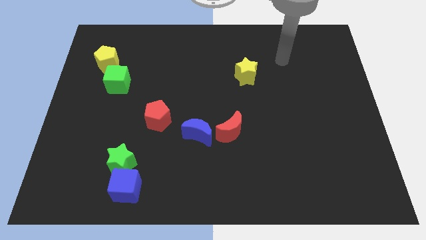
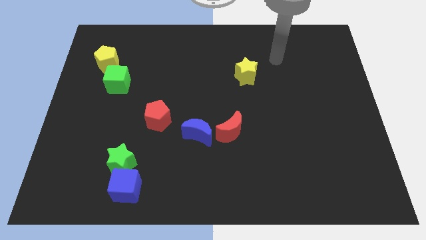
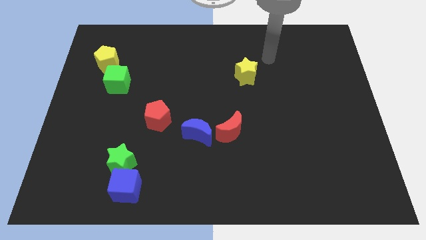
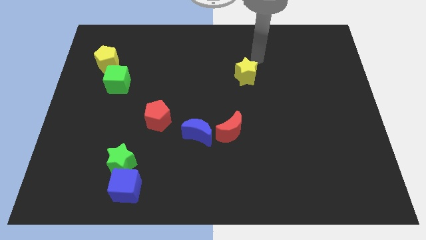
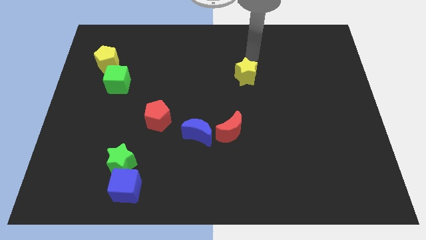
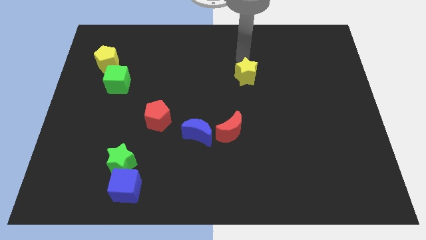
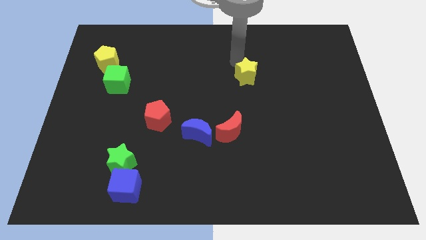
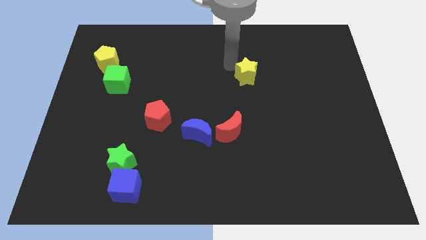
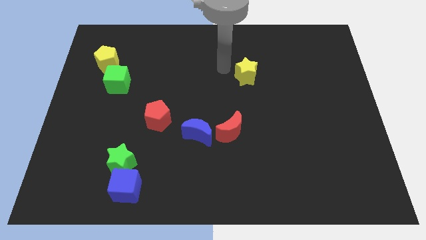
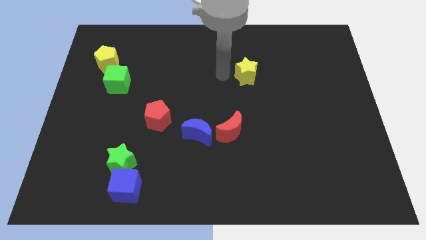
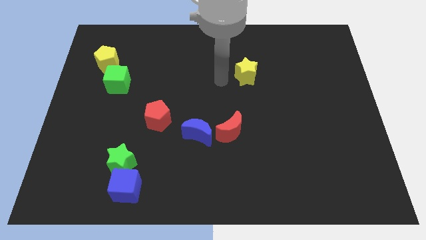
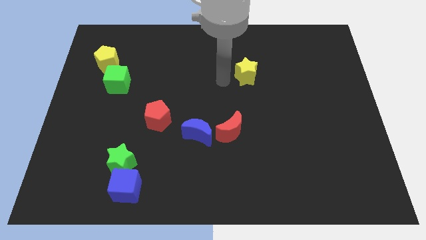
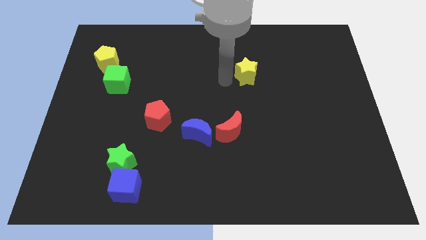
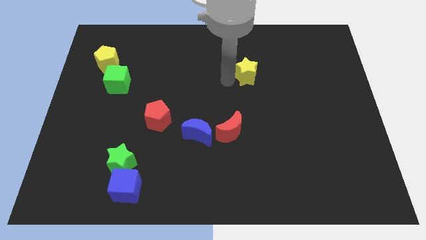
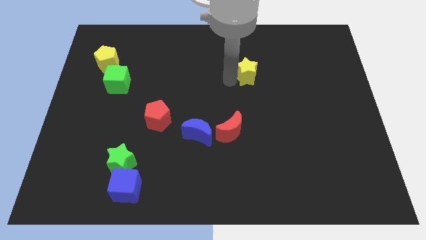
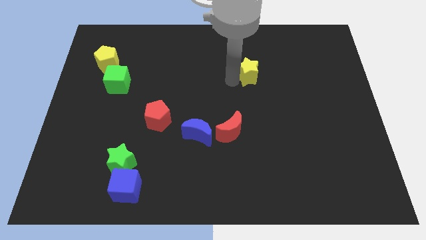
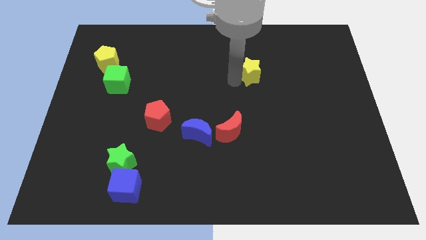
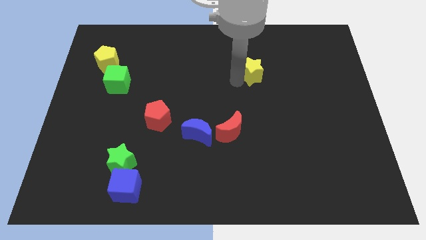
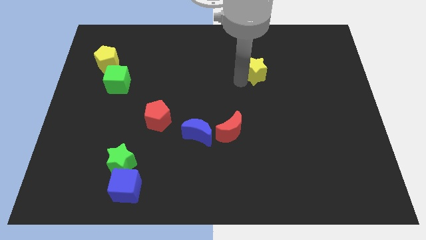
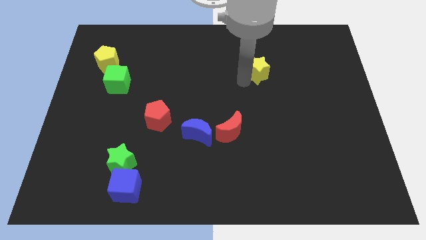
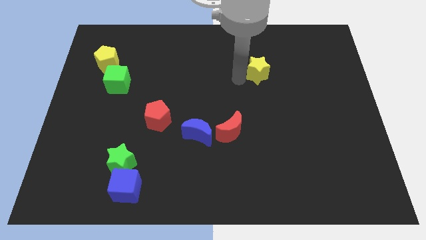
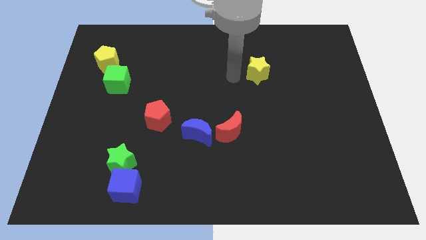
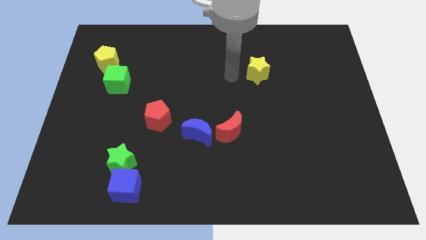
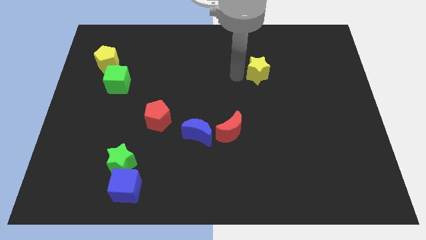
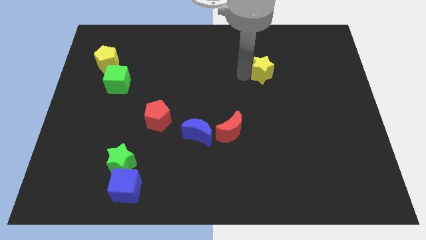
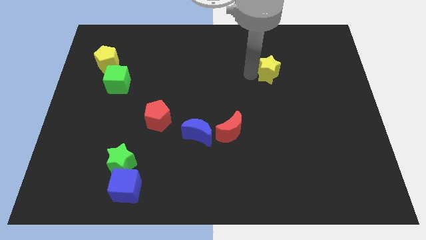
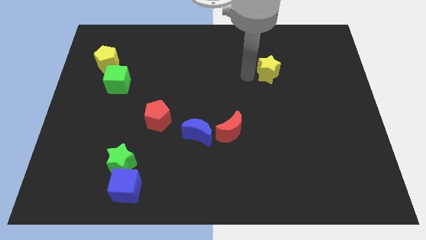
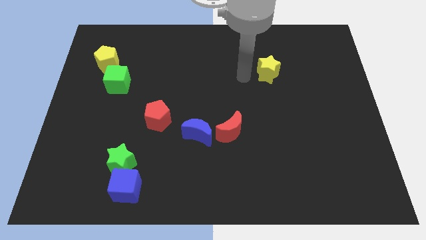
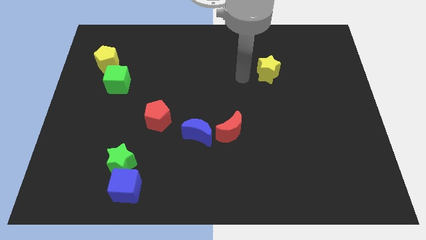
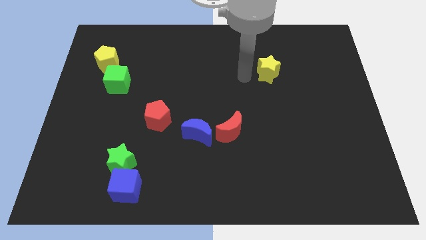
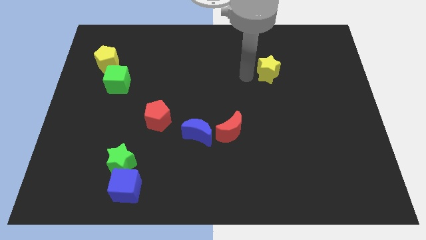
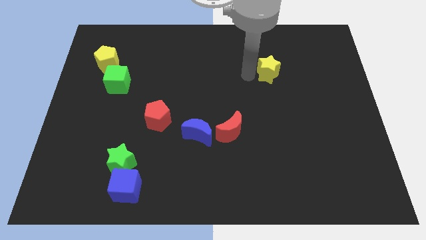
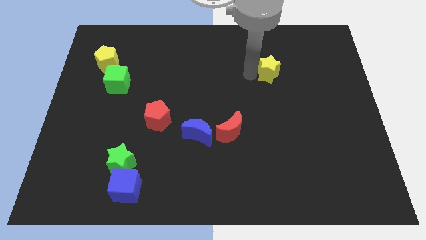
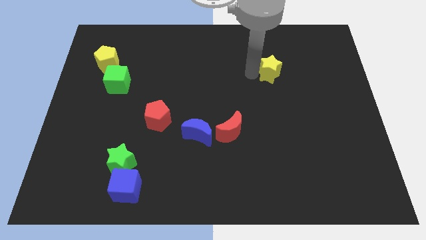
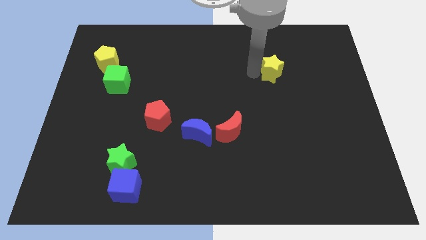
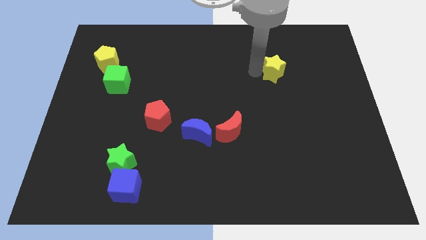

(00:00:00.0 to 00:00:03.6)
move the yellow star somewhat to the right

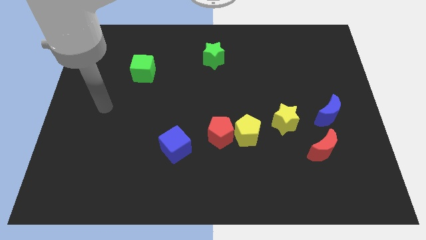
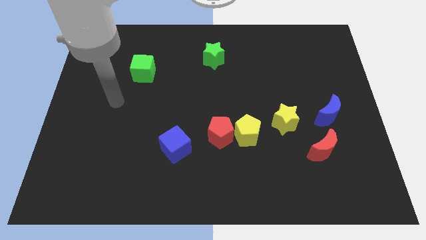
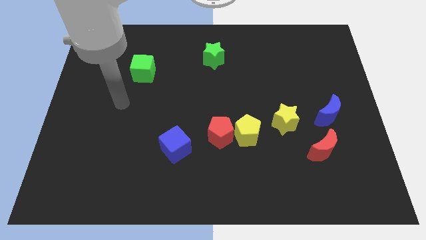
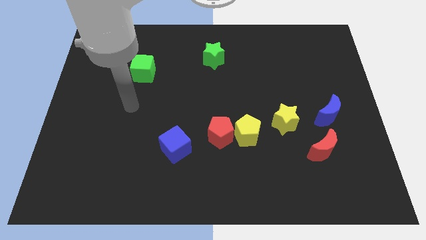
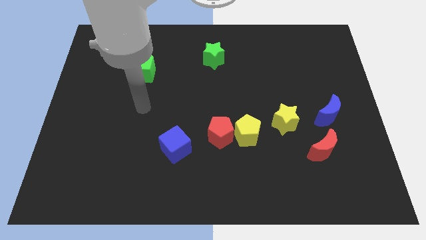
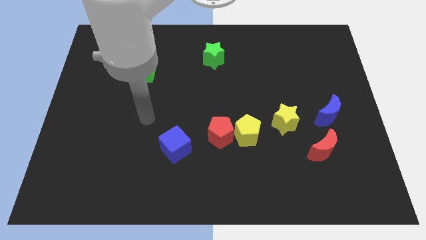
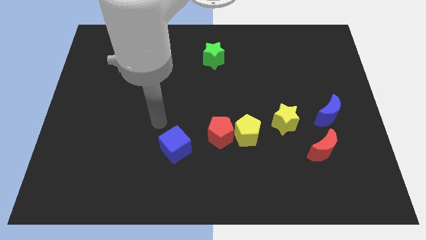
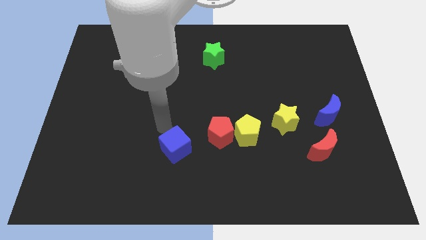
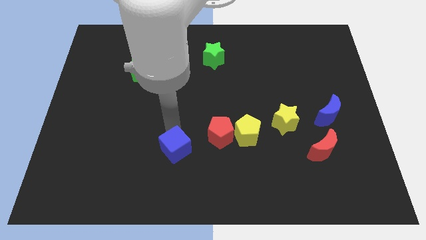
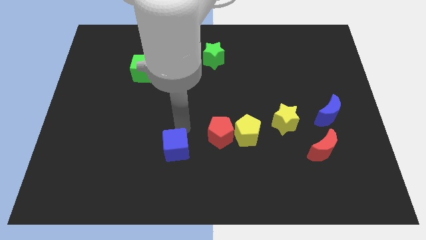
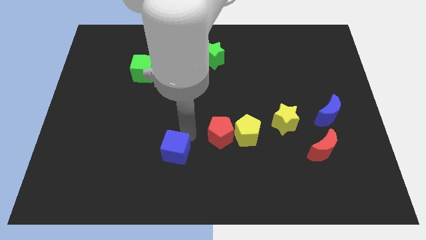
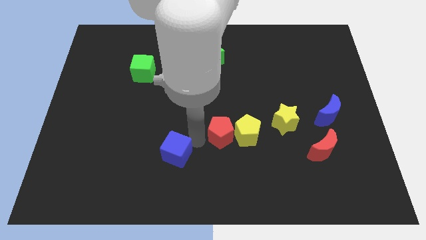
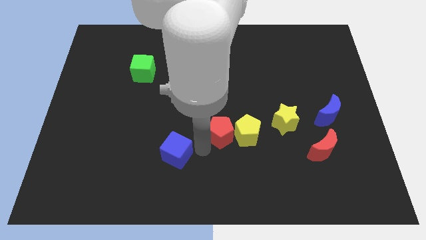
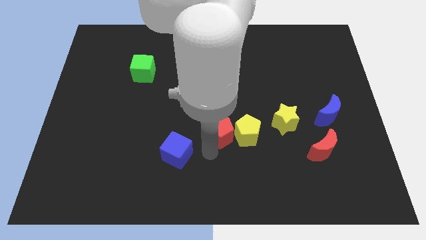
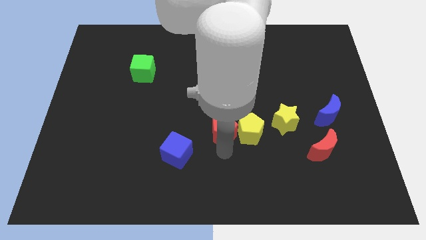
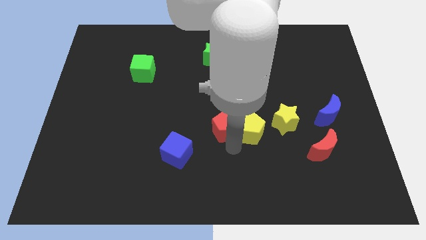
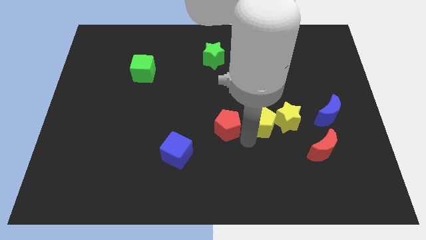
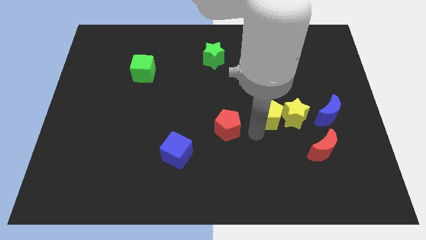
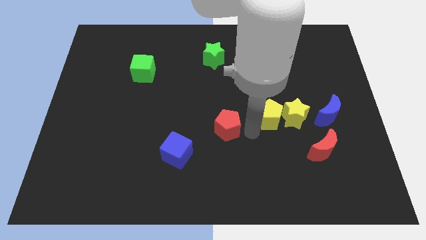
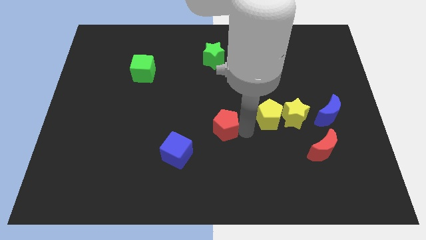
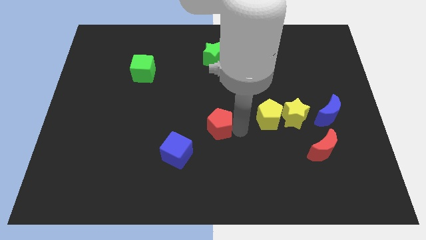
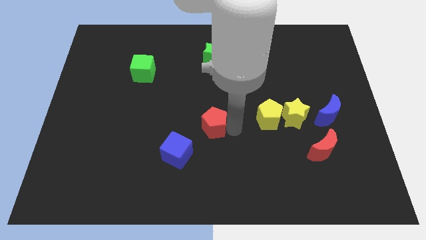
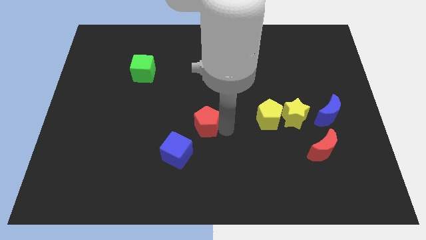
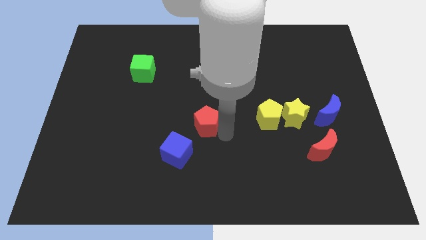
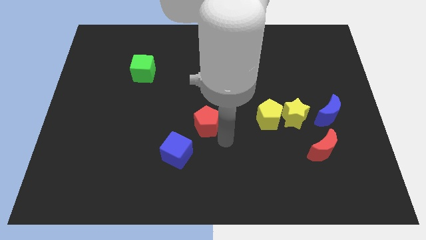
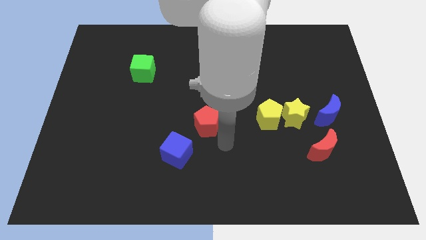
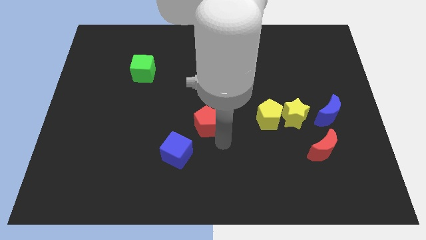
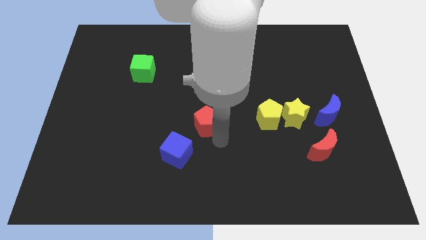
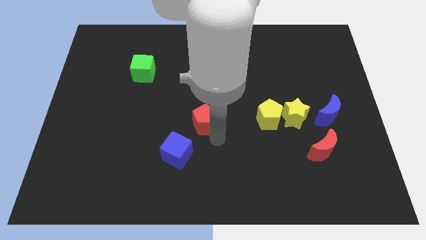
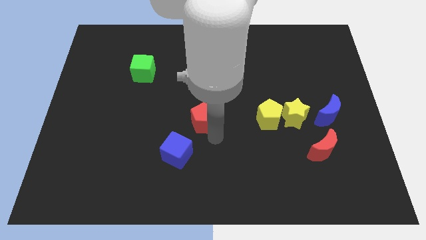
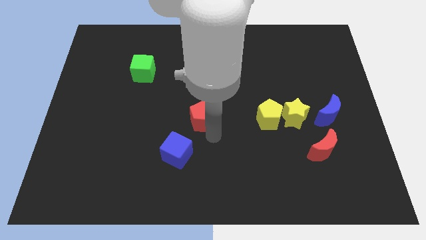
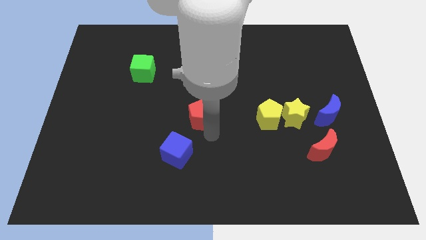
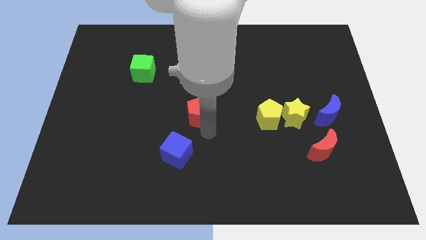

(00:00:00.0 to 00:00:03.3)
move the red pentagon upwards and left slightly

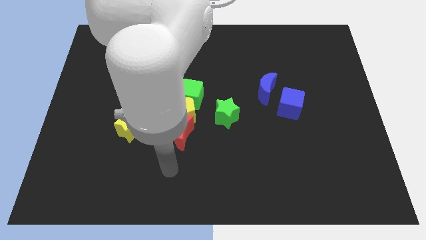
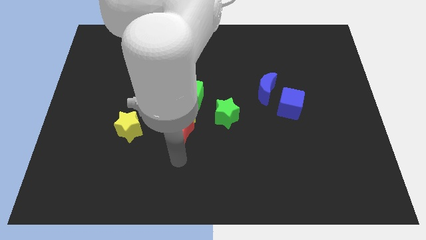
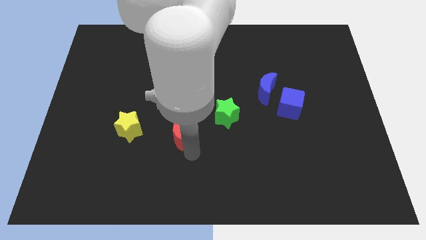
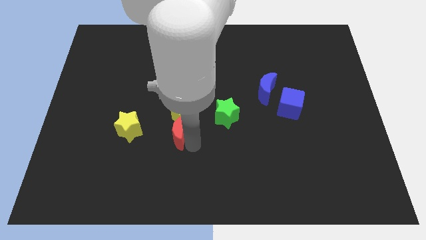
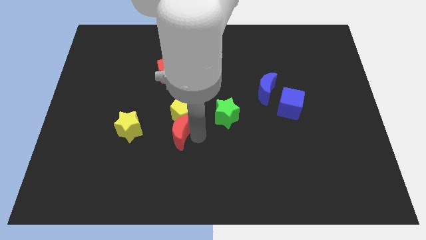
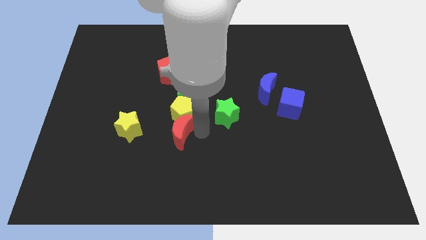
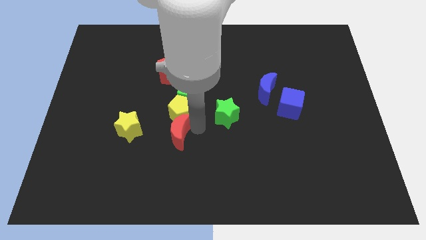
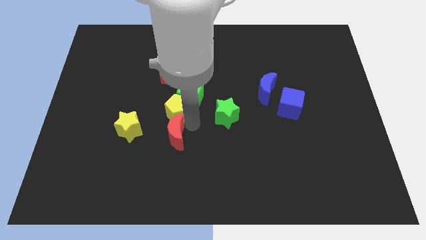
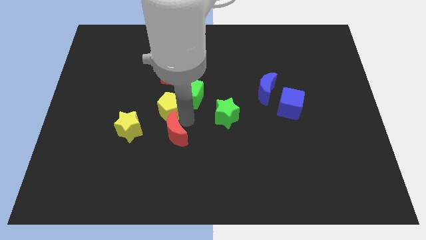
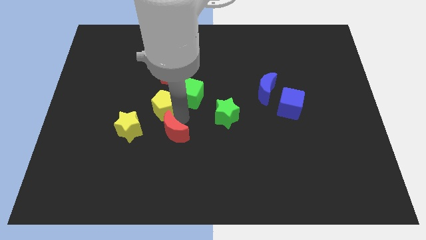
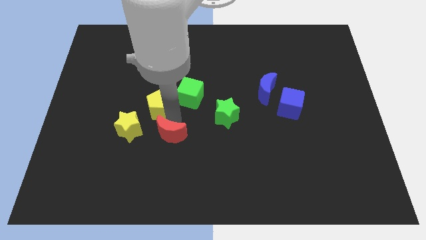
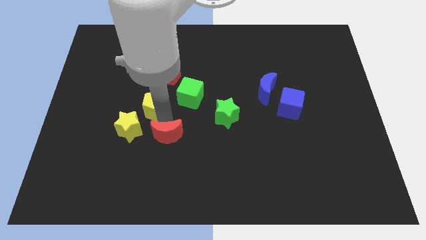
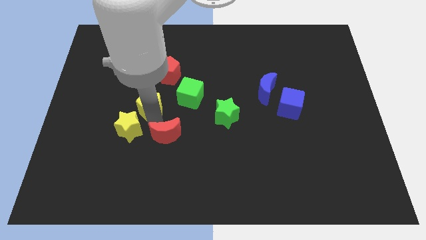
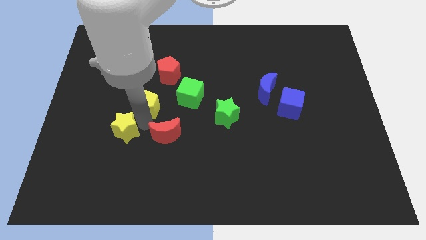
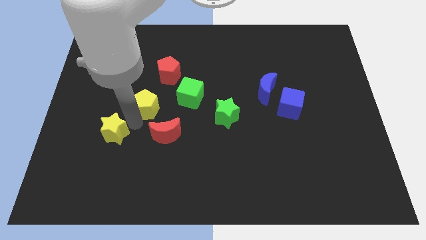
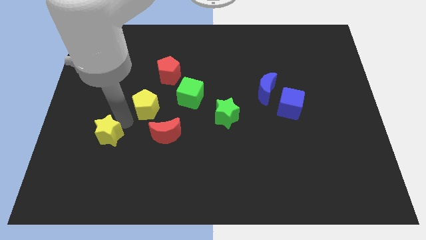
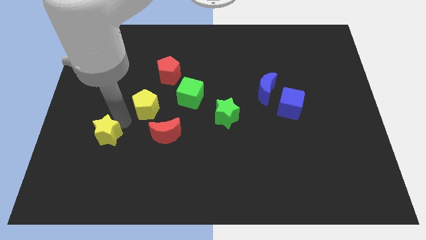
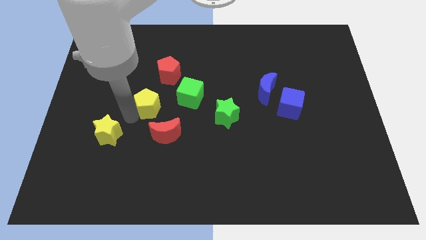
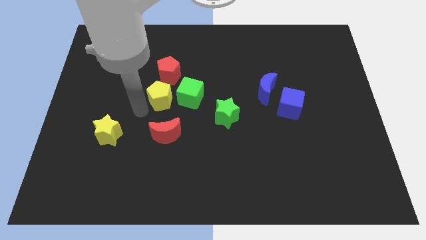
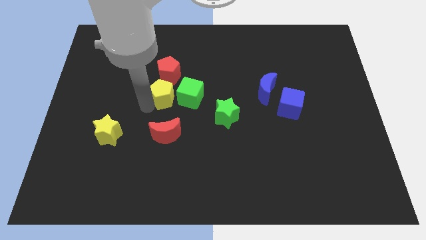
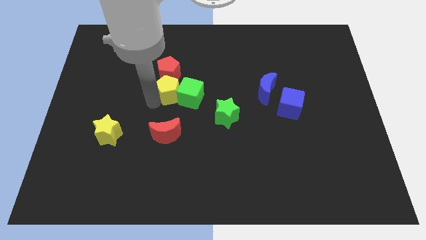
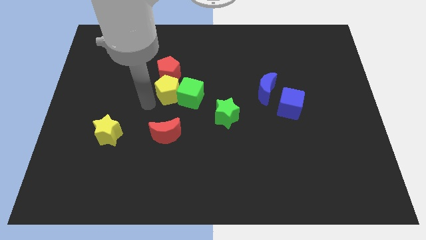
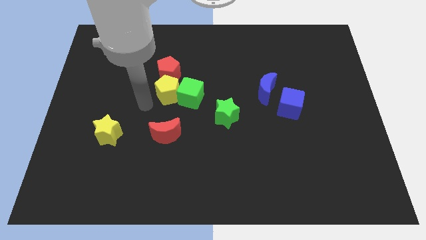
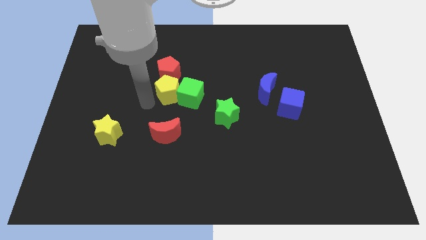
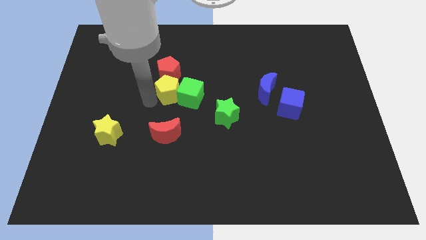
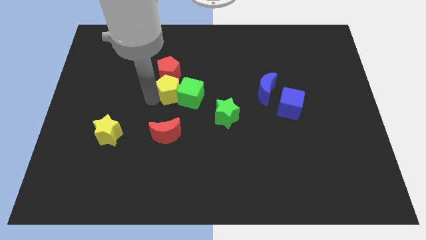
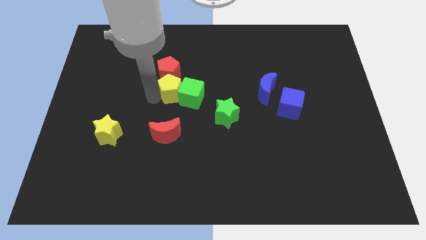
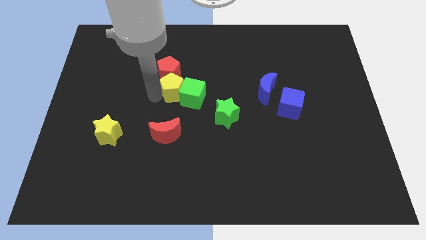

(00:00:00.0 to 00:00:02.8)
slightly slide the yellow pentagon up
